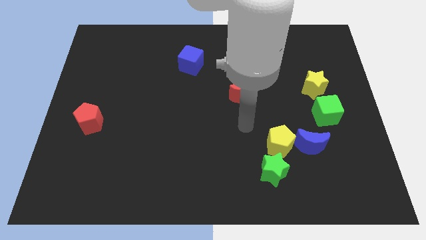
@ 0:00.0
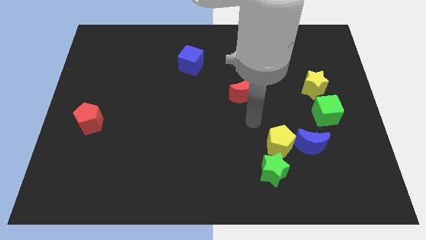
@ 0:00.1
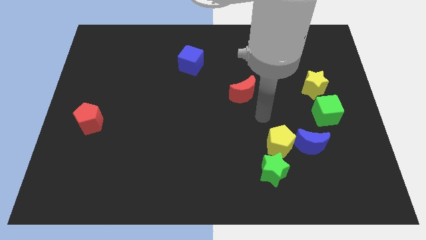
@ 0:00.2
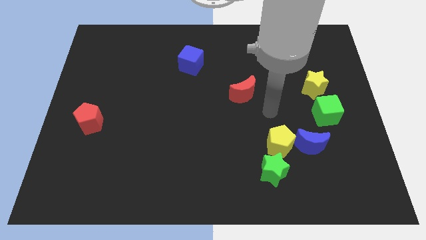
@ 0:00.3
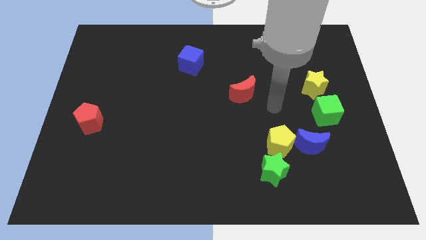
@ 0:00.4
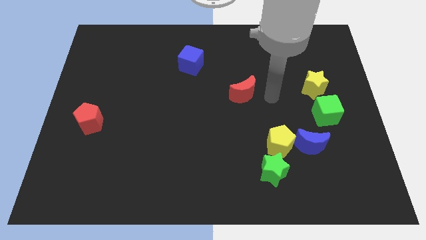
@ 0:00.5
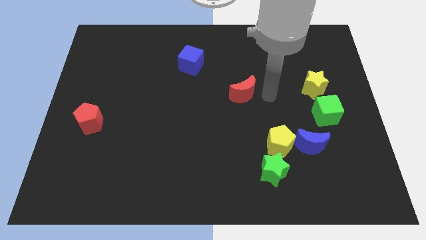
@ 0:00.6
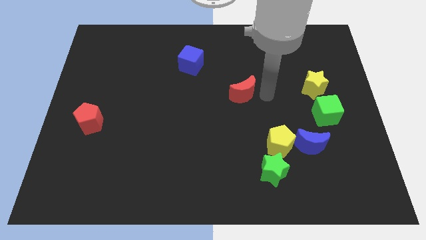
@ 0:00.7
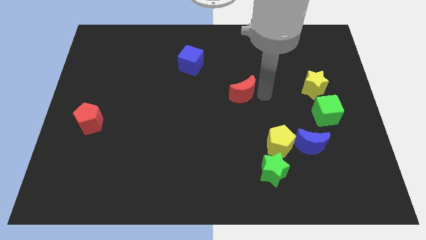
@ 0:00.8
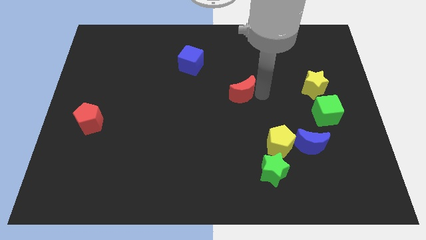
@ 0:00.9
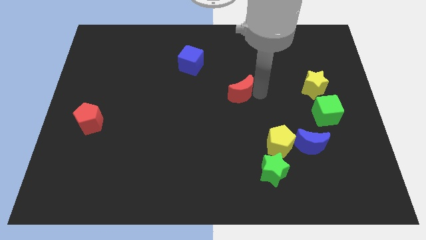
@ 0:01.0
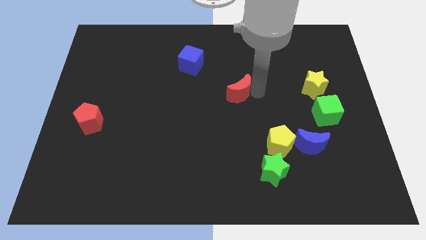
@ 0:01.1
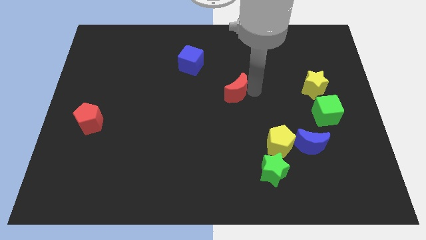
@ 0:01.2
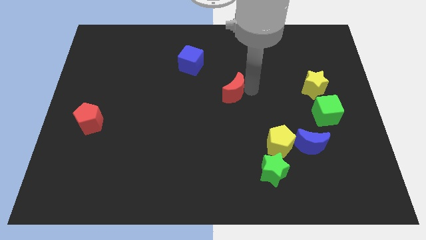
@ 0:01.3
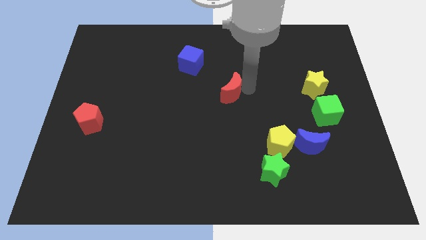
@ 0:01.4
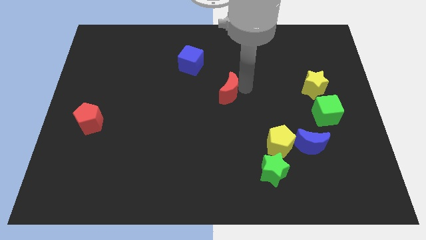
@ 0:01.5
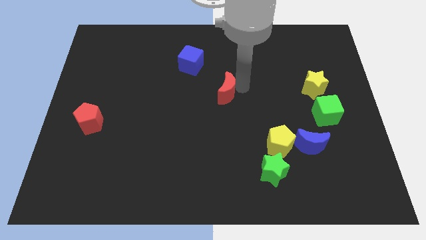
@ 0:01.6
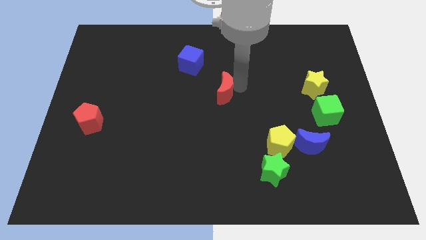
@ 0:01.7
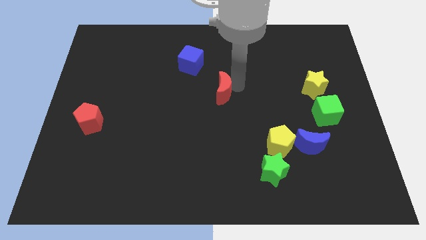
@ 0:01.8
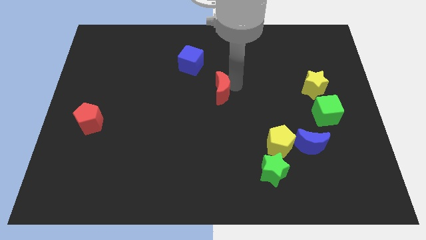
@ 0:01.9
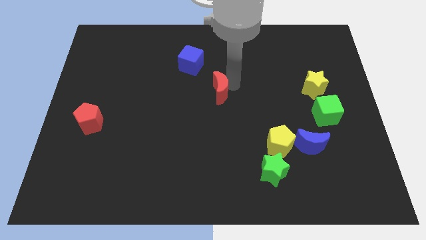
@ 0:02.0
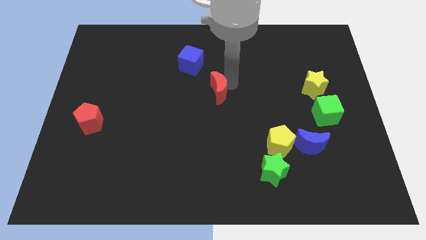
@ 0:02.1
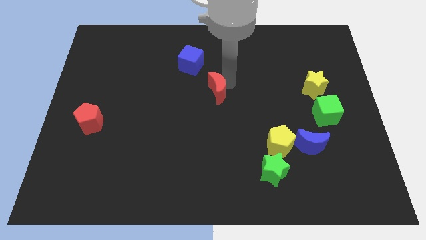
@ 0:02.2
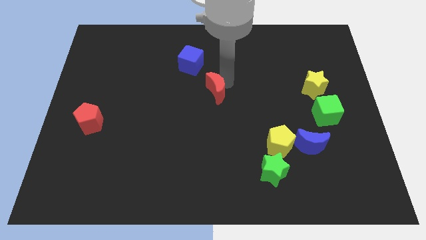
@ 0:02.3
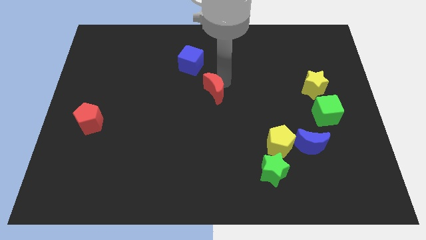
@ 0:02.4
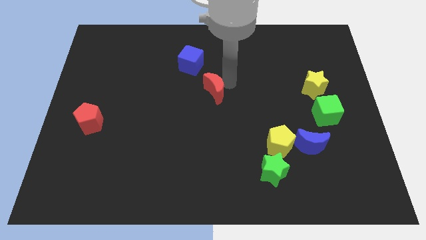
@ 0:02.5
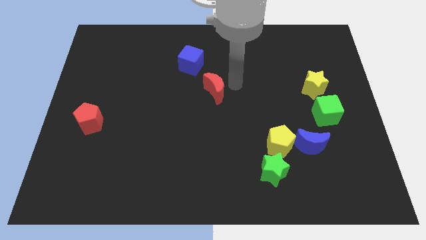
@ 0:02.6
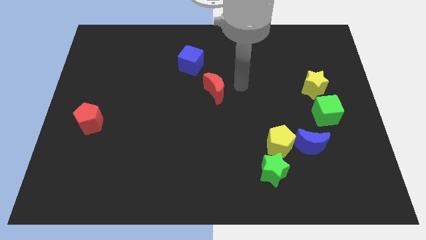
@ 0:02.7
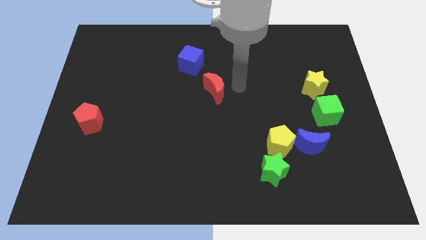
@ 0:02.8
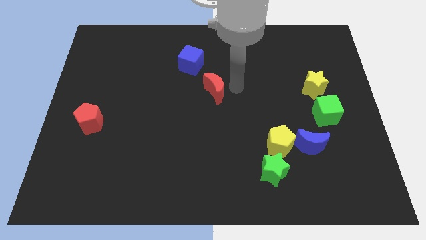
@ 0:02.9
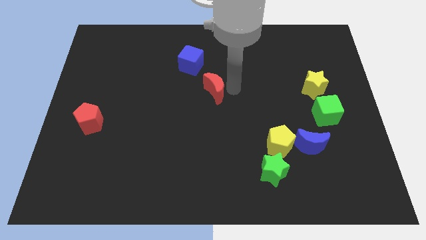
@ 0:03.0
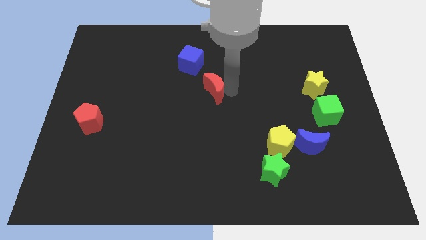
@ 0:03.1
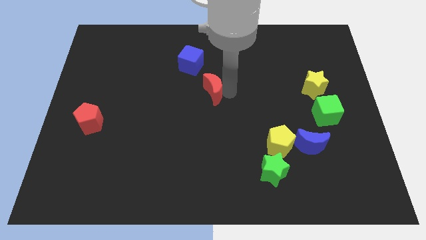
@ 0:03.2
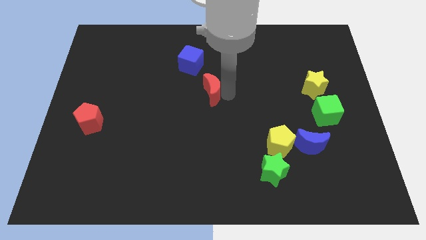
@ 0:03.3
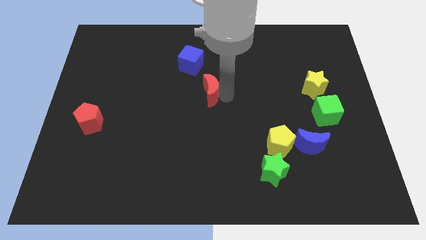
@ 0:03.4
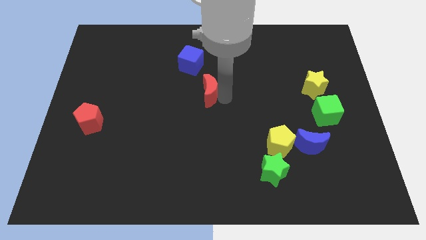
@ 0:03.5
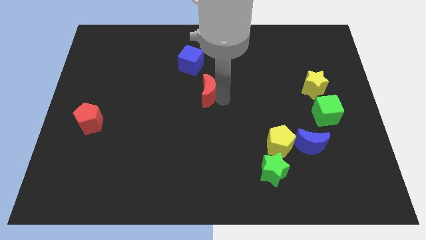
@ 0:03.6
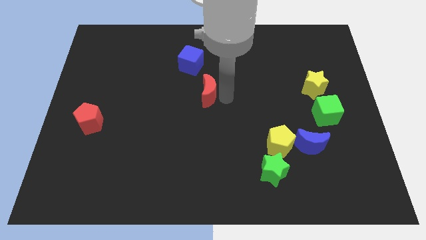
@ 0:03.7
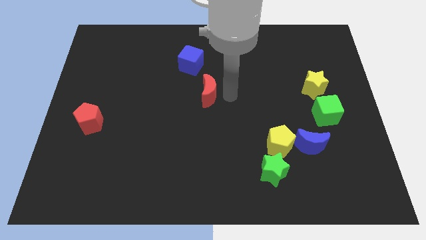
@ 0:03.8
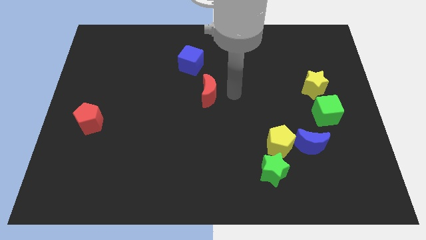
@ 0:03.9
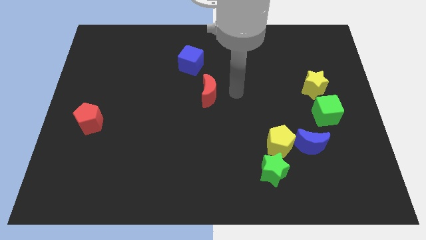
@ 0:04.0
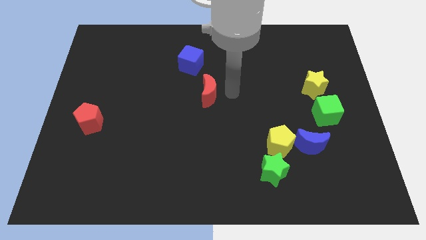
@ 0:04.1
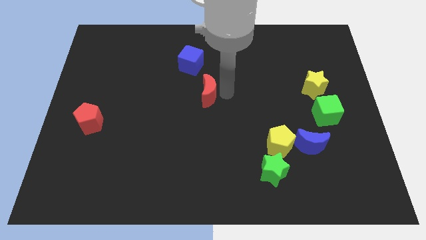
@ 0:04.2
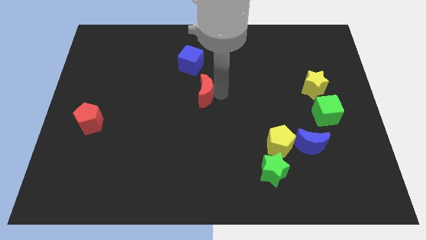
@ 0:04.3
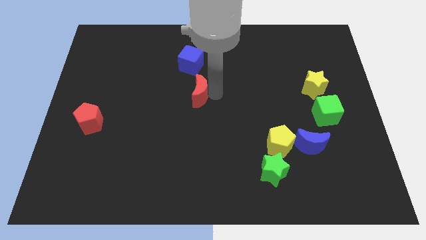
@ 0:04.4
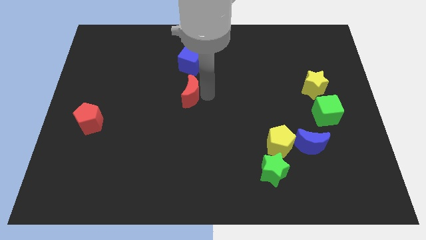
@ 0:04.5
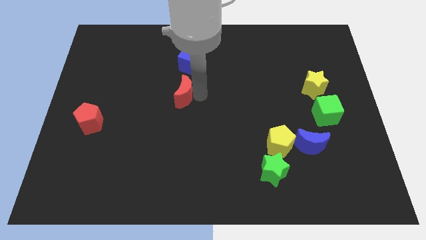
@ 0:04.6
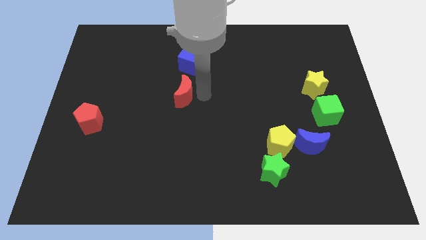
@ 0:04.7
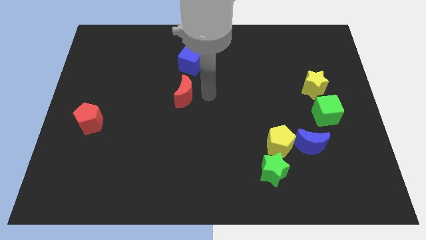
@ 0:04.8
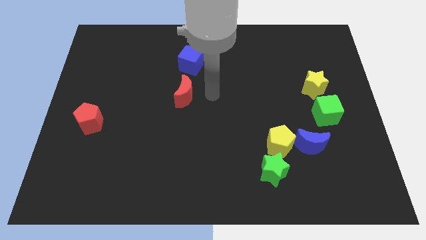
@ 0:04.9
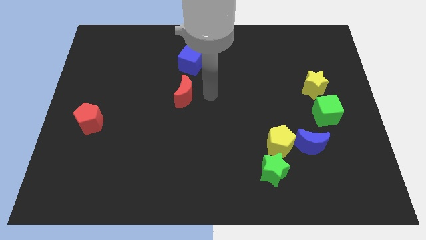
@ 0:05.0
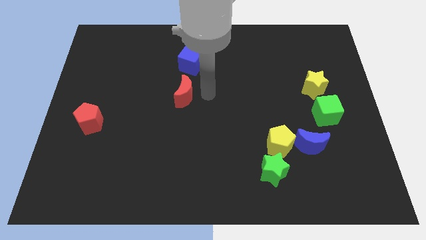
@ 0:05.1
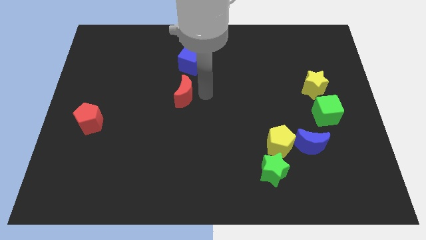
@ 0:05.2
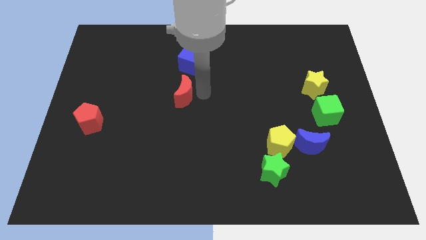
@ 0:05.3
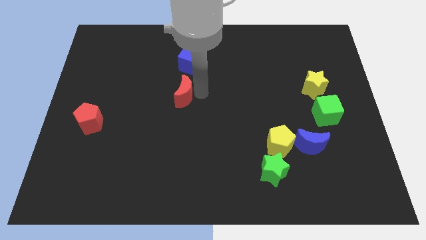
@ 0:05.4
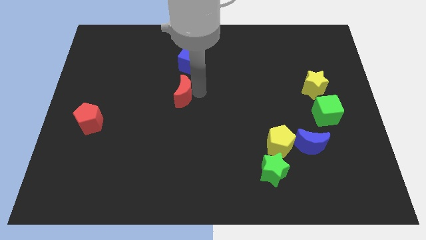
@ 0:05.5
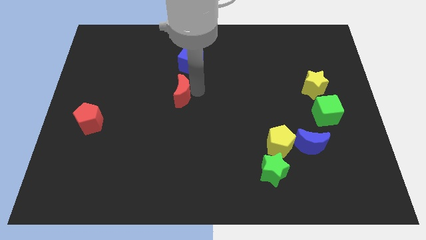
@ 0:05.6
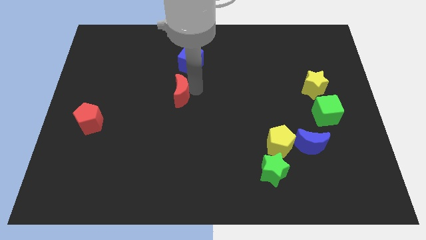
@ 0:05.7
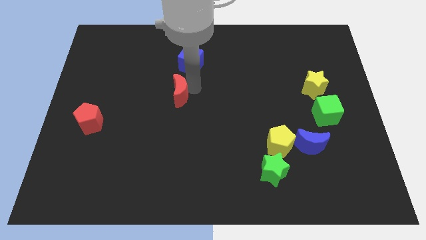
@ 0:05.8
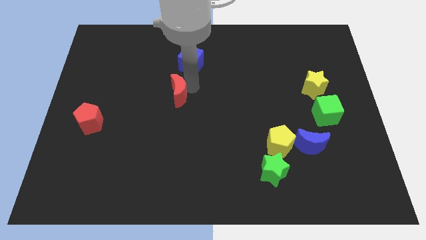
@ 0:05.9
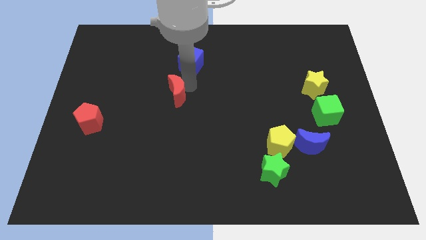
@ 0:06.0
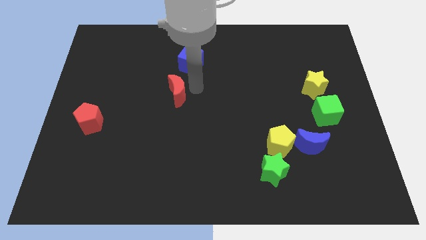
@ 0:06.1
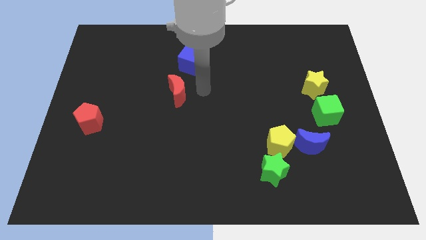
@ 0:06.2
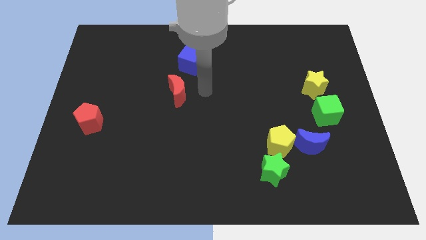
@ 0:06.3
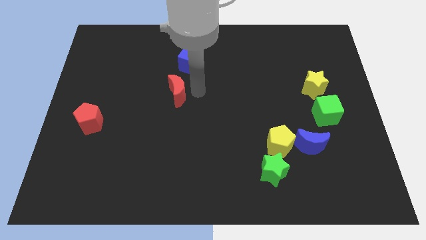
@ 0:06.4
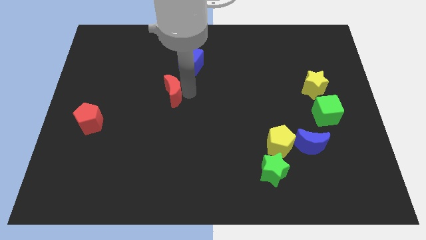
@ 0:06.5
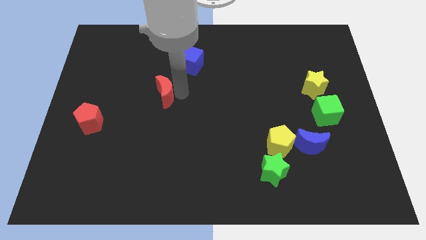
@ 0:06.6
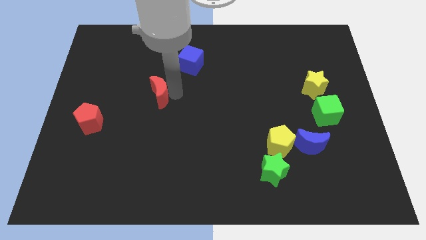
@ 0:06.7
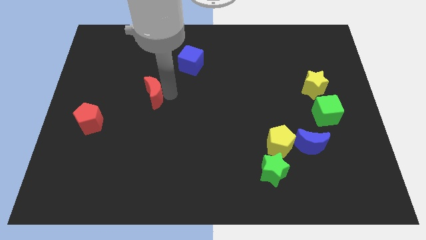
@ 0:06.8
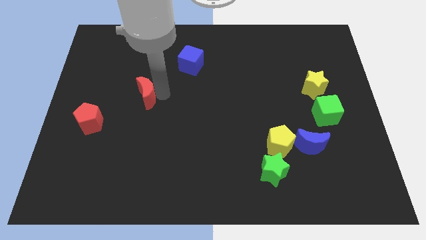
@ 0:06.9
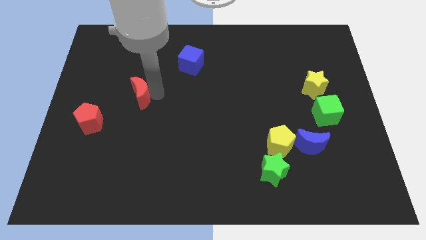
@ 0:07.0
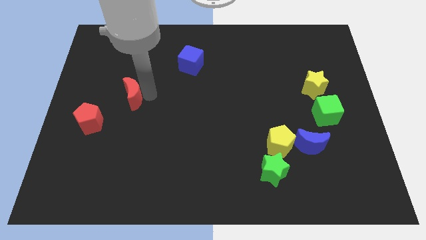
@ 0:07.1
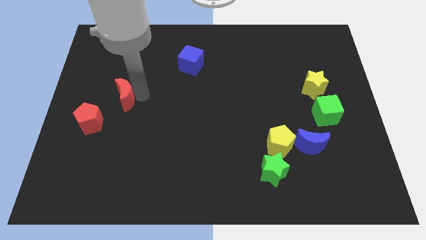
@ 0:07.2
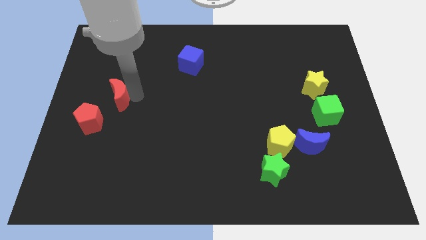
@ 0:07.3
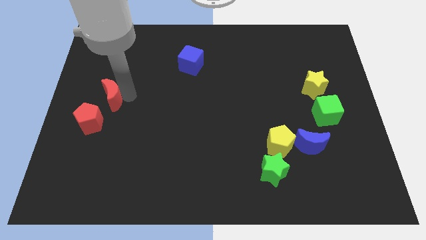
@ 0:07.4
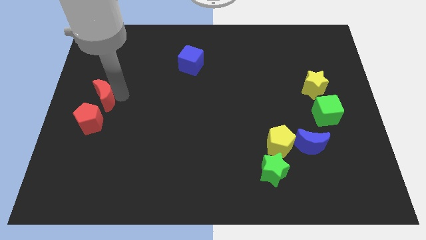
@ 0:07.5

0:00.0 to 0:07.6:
slide the red moon to the left side
